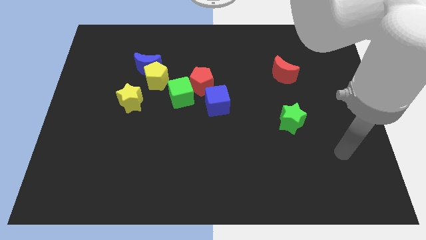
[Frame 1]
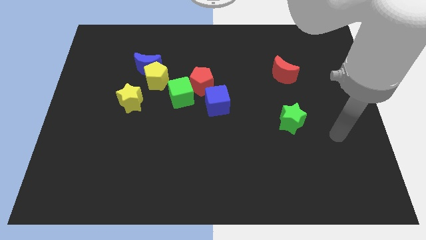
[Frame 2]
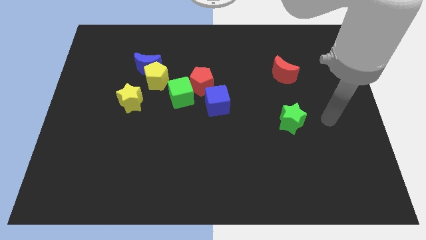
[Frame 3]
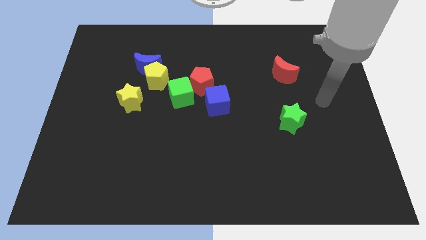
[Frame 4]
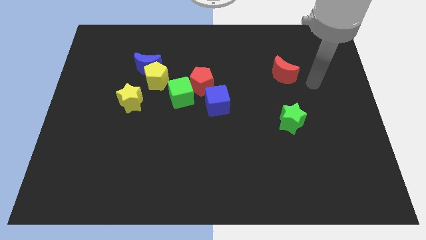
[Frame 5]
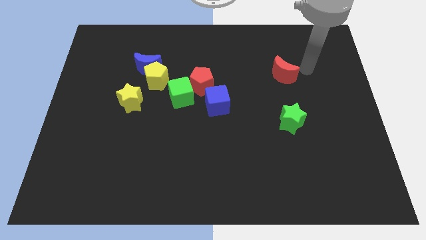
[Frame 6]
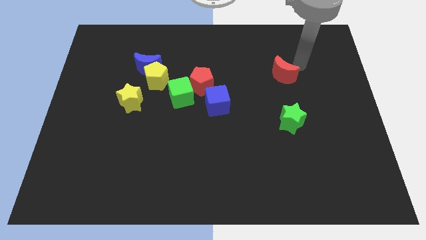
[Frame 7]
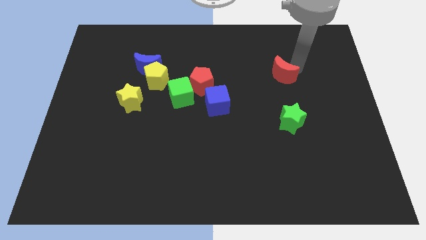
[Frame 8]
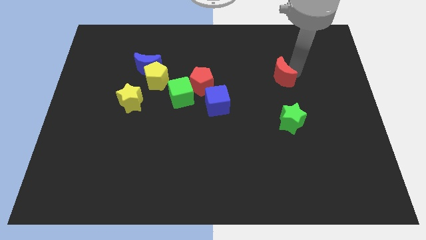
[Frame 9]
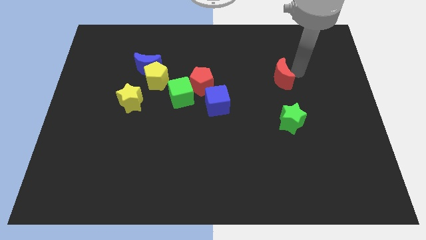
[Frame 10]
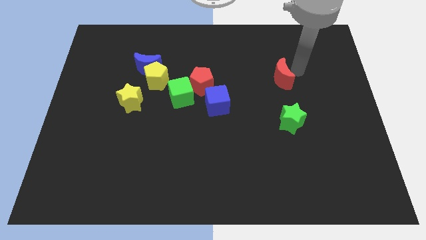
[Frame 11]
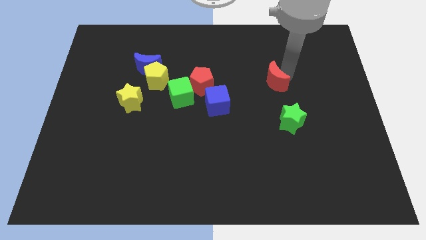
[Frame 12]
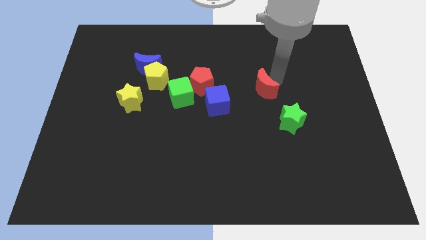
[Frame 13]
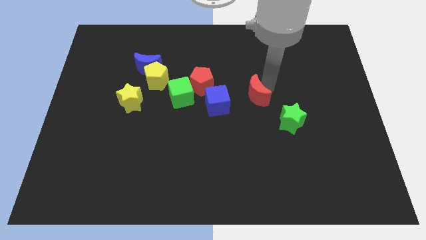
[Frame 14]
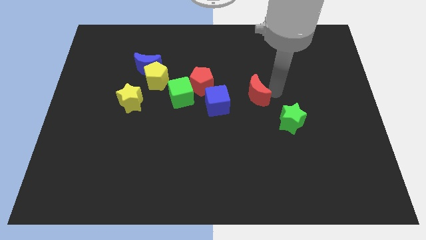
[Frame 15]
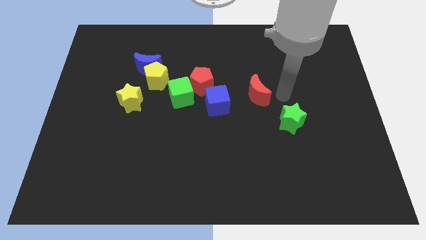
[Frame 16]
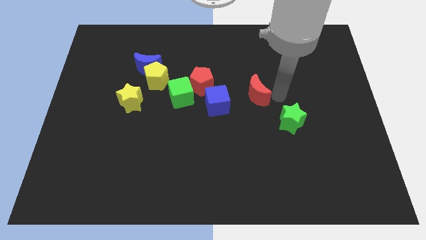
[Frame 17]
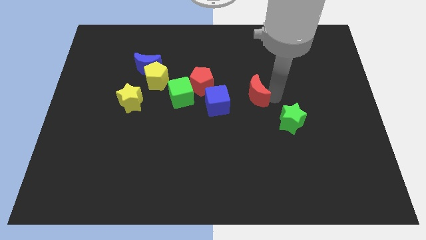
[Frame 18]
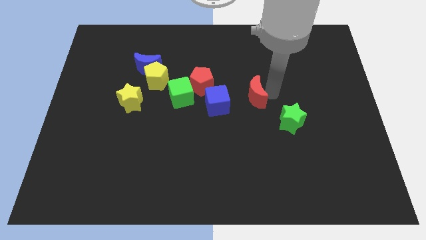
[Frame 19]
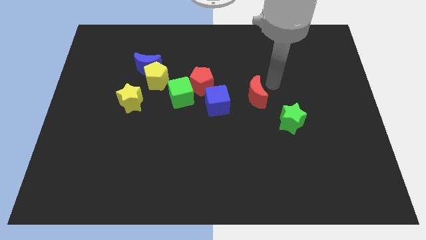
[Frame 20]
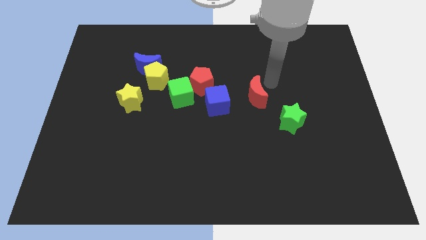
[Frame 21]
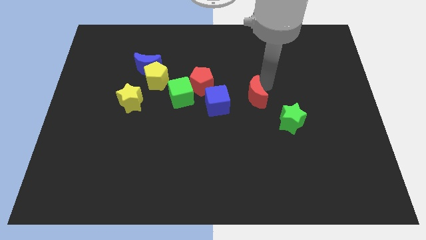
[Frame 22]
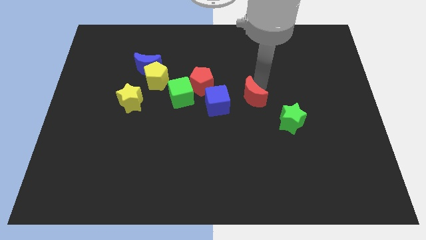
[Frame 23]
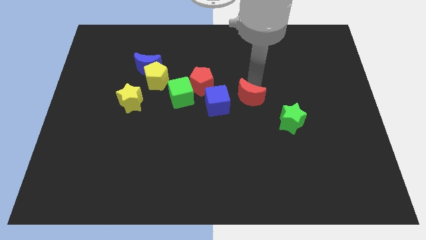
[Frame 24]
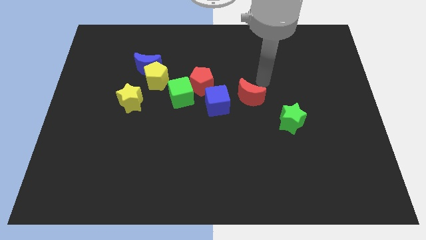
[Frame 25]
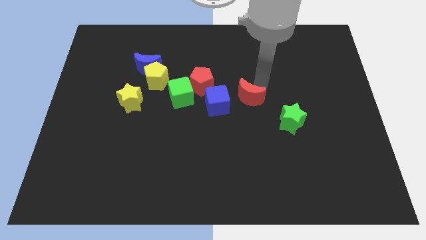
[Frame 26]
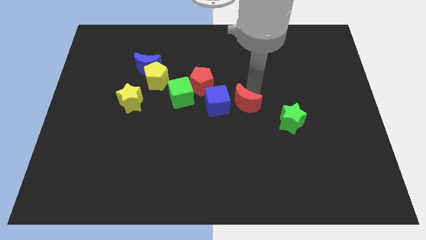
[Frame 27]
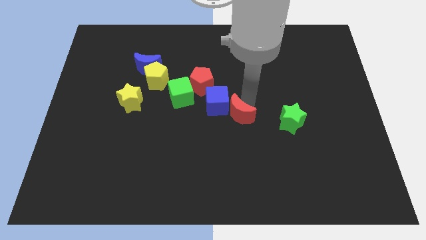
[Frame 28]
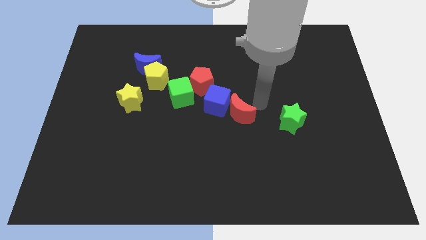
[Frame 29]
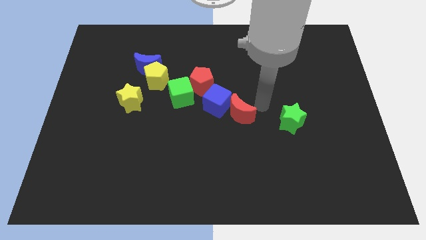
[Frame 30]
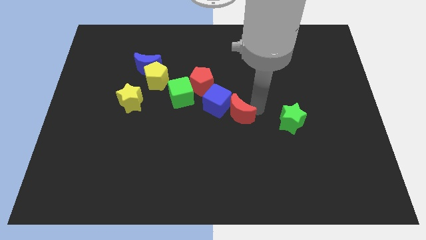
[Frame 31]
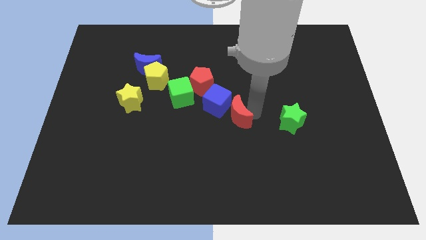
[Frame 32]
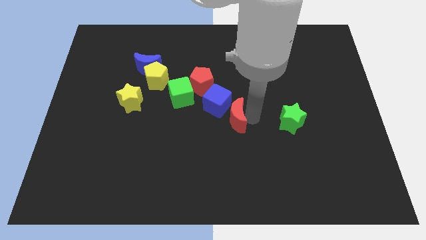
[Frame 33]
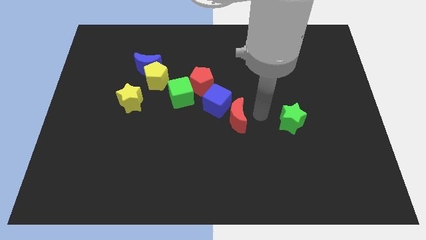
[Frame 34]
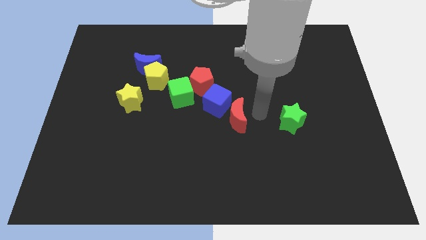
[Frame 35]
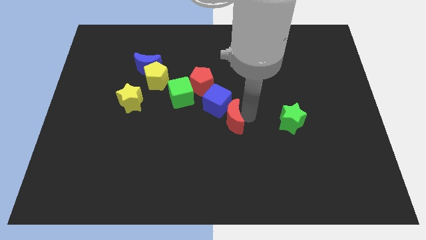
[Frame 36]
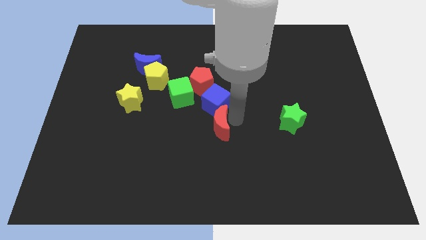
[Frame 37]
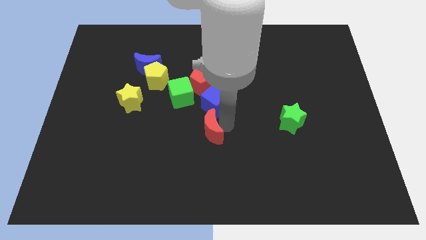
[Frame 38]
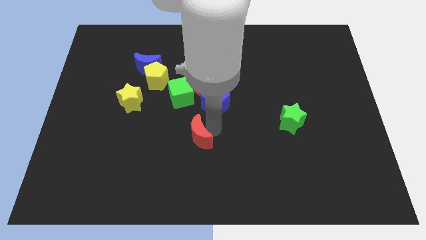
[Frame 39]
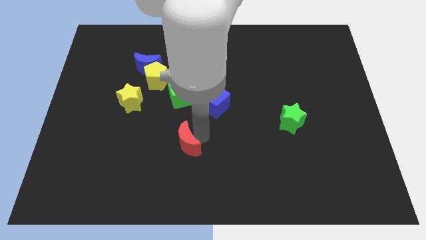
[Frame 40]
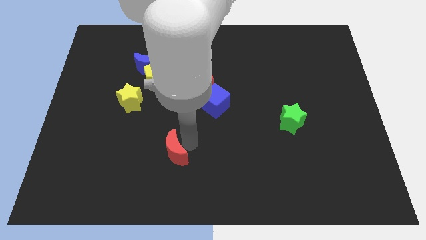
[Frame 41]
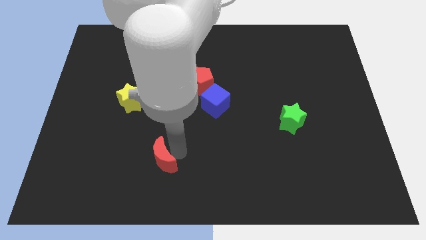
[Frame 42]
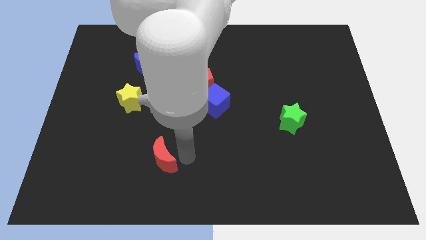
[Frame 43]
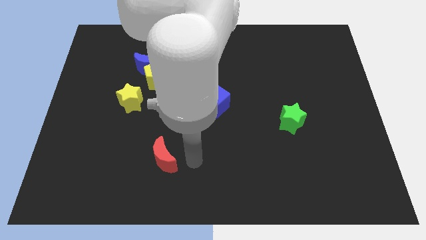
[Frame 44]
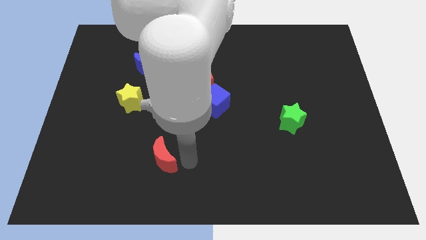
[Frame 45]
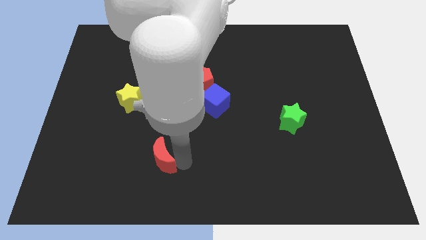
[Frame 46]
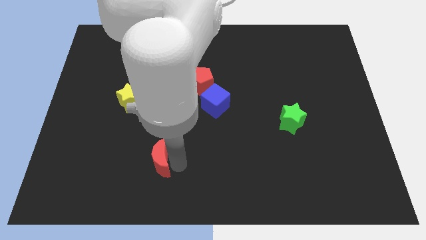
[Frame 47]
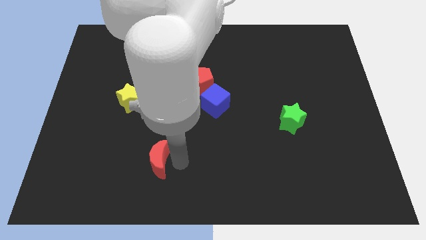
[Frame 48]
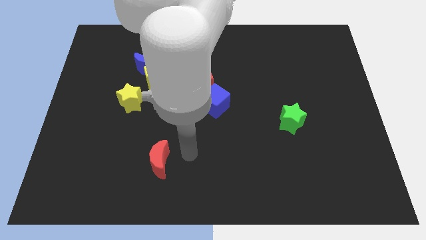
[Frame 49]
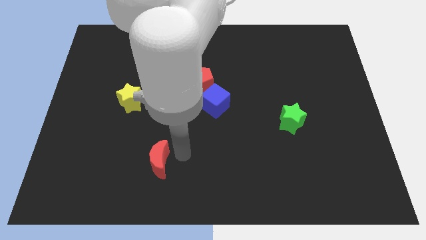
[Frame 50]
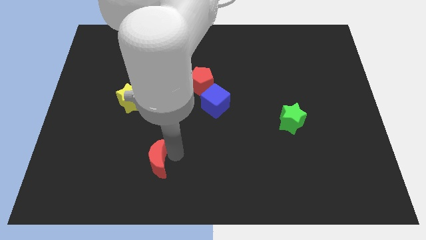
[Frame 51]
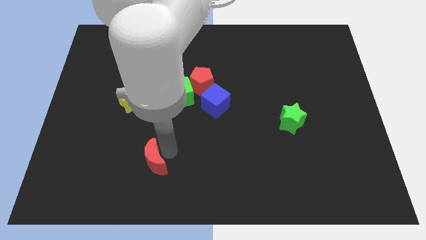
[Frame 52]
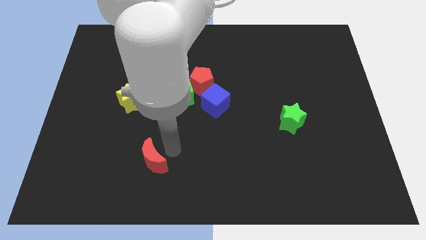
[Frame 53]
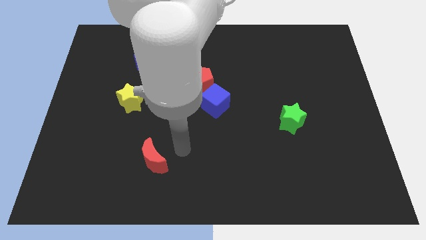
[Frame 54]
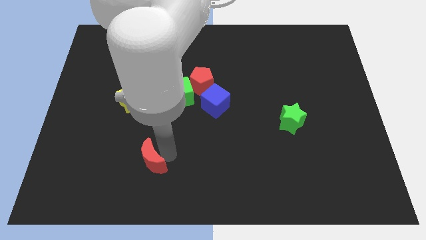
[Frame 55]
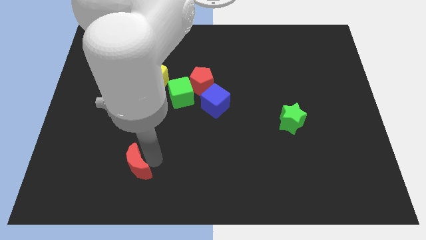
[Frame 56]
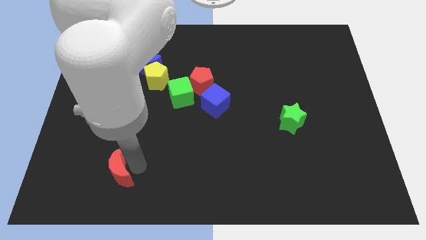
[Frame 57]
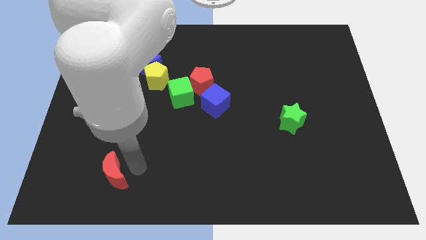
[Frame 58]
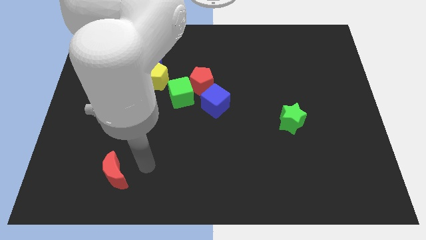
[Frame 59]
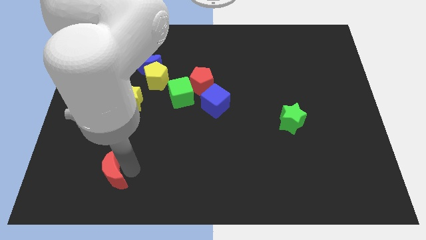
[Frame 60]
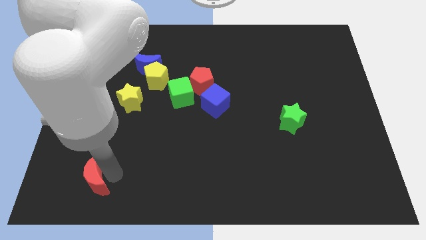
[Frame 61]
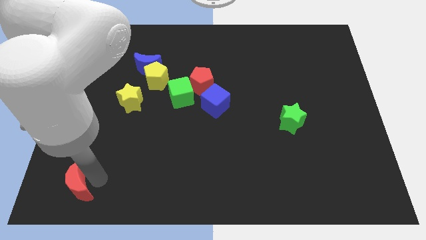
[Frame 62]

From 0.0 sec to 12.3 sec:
put the red moon to the bottom left
